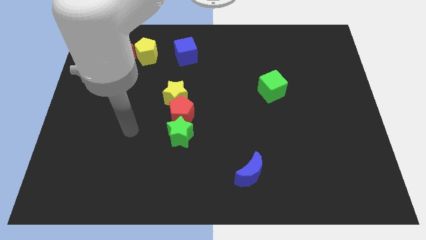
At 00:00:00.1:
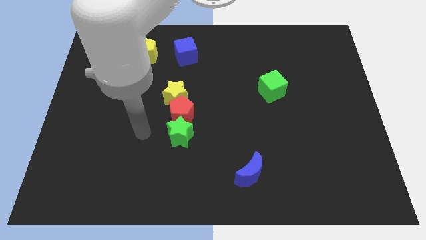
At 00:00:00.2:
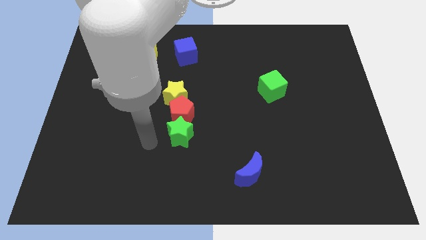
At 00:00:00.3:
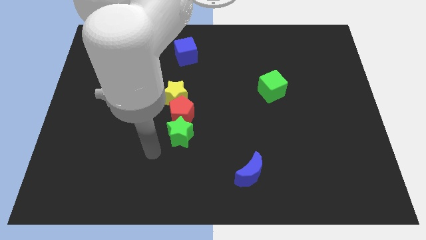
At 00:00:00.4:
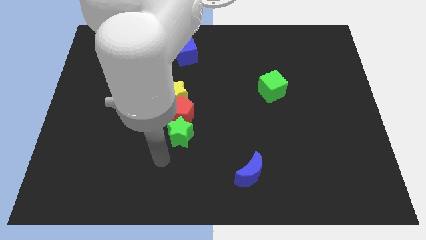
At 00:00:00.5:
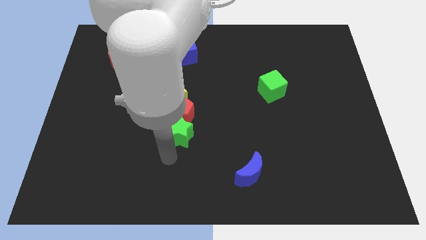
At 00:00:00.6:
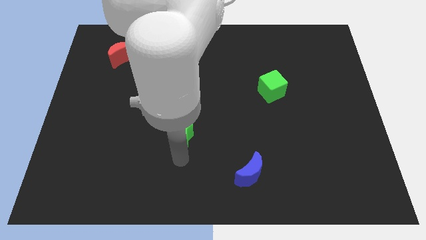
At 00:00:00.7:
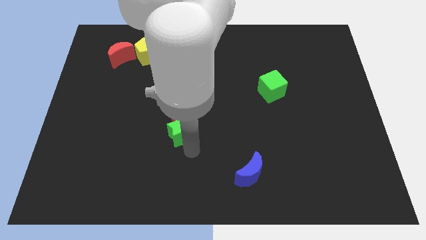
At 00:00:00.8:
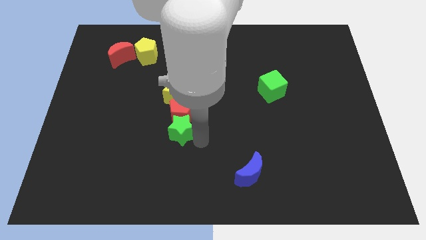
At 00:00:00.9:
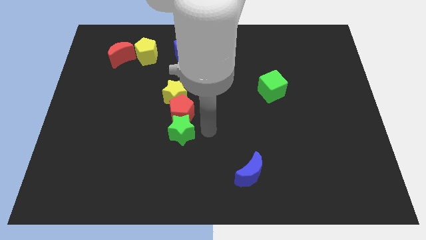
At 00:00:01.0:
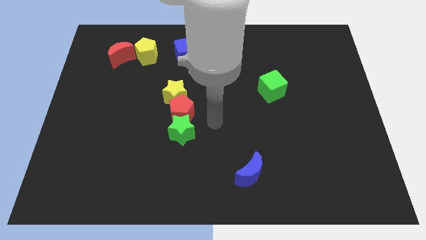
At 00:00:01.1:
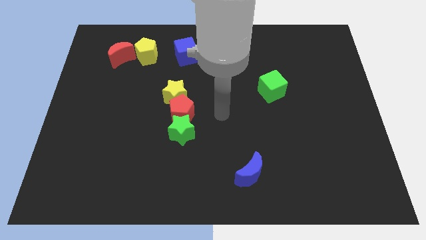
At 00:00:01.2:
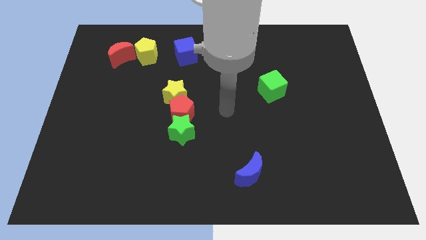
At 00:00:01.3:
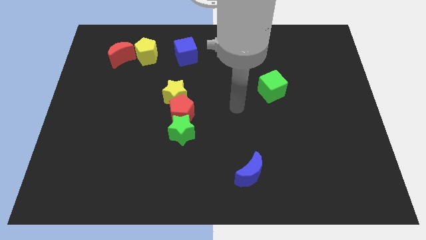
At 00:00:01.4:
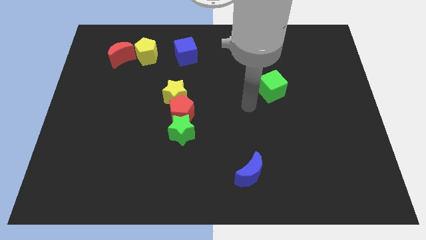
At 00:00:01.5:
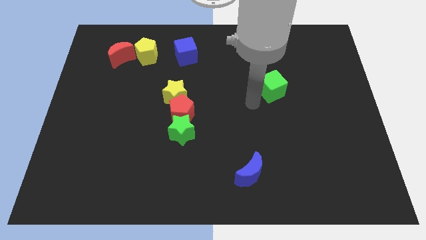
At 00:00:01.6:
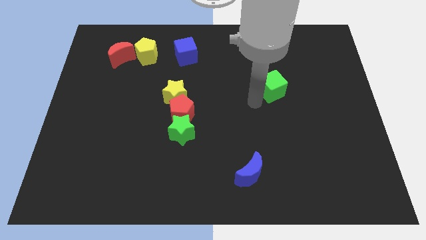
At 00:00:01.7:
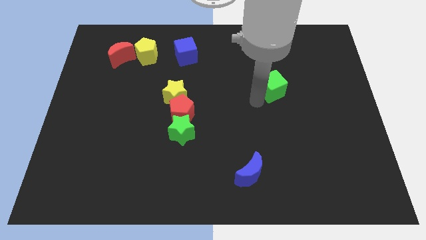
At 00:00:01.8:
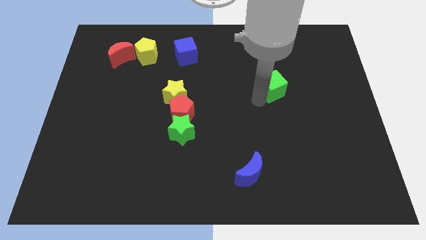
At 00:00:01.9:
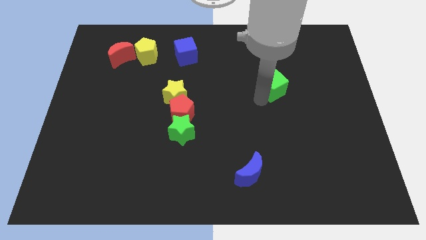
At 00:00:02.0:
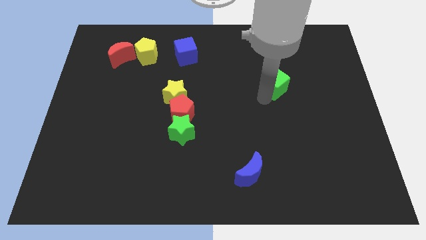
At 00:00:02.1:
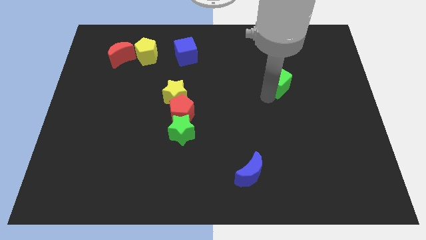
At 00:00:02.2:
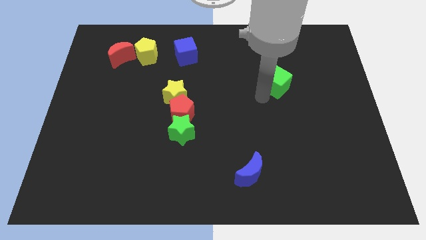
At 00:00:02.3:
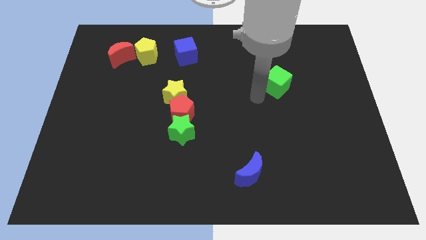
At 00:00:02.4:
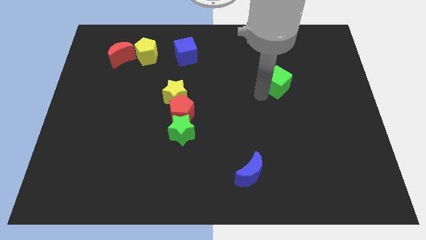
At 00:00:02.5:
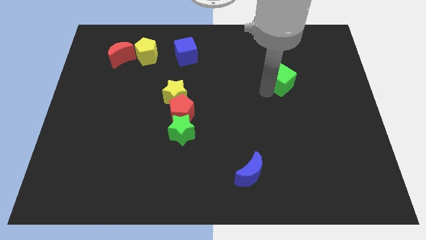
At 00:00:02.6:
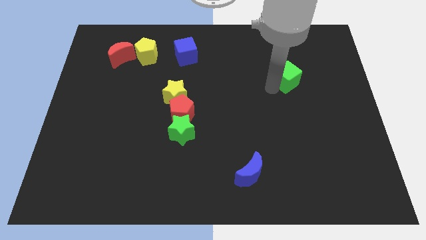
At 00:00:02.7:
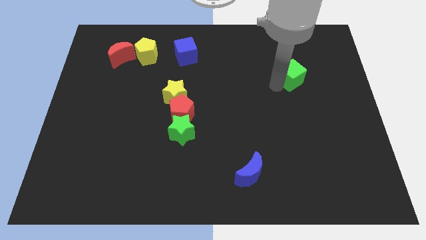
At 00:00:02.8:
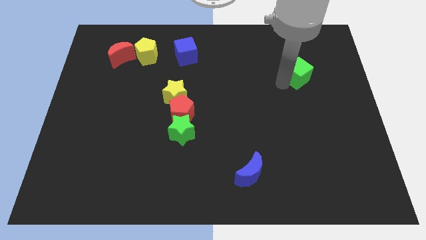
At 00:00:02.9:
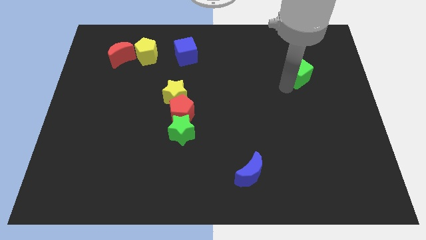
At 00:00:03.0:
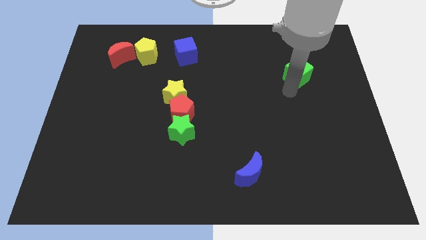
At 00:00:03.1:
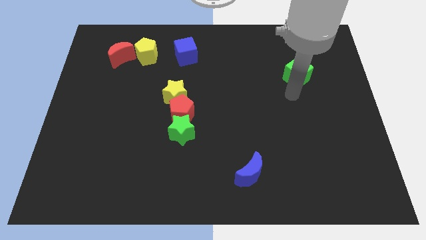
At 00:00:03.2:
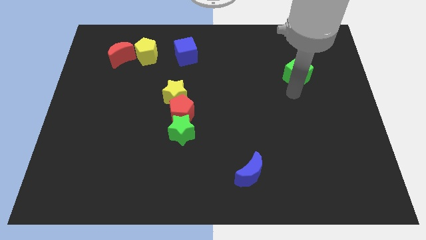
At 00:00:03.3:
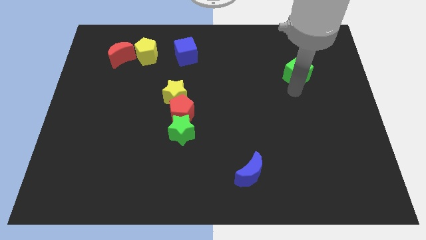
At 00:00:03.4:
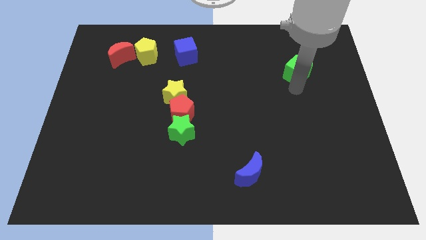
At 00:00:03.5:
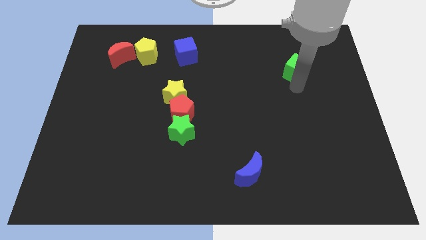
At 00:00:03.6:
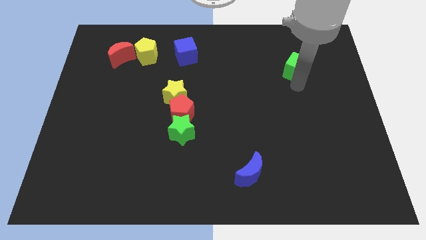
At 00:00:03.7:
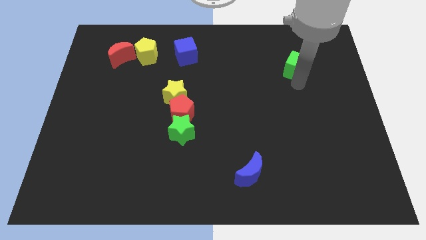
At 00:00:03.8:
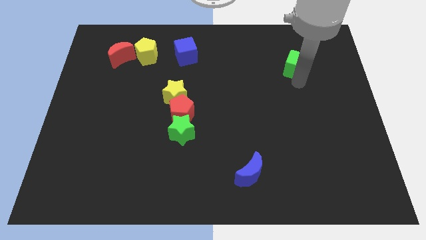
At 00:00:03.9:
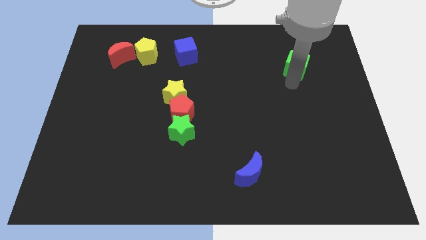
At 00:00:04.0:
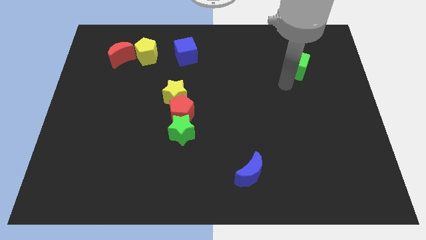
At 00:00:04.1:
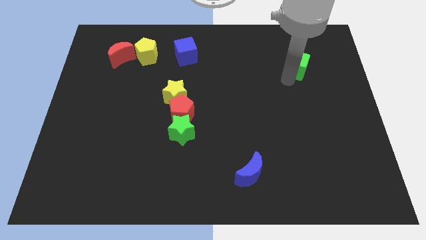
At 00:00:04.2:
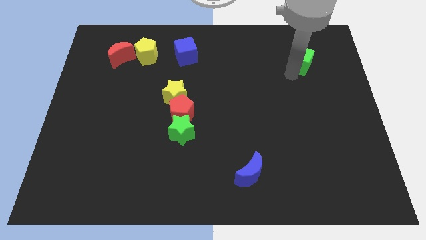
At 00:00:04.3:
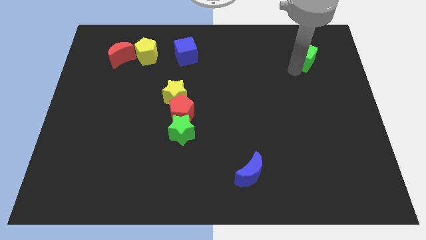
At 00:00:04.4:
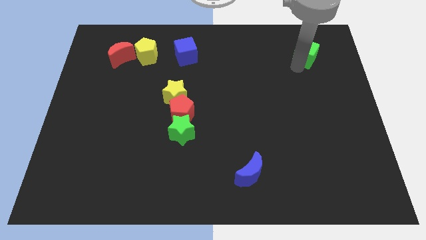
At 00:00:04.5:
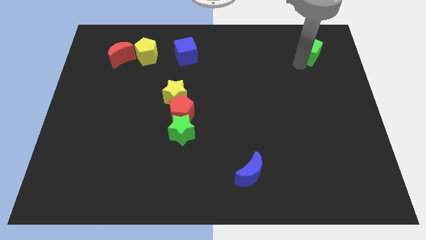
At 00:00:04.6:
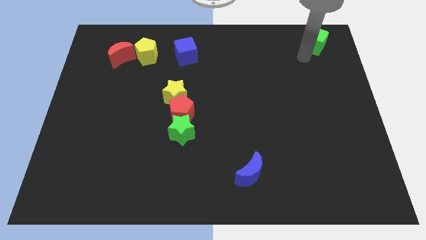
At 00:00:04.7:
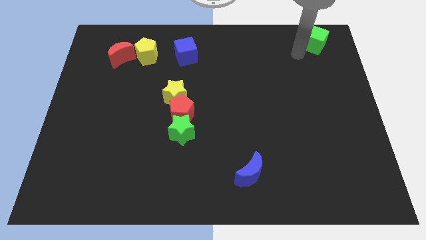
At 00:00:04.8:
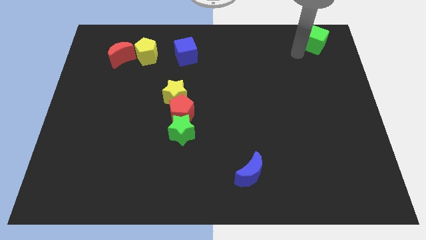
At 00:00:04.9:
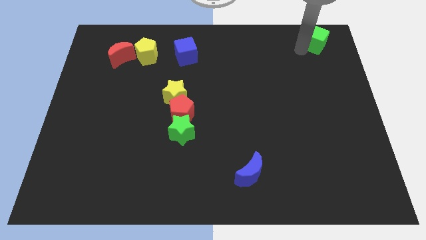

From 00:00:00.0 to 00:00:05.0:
move the green cube to the top right
